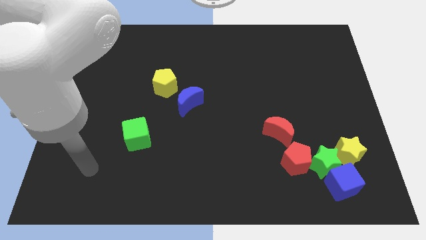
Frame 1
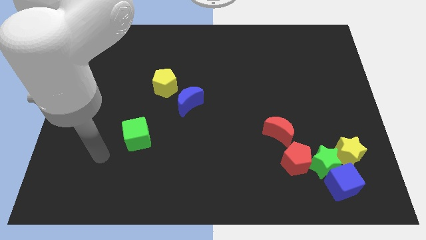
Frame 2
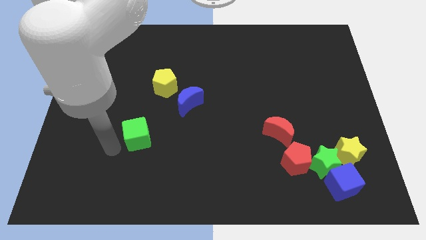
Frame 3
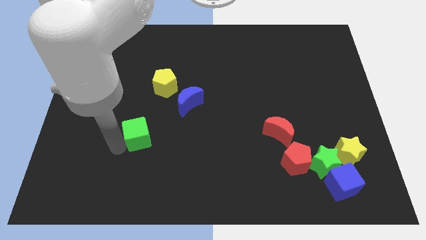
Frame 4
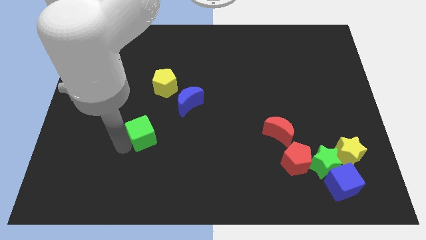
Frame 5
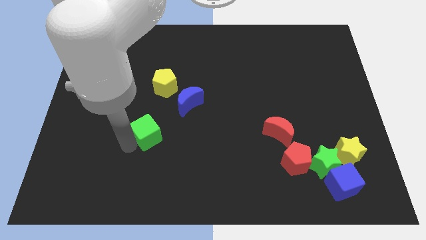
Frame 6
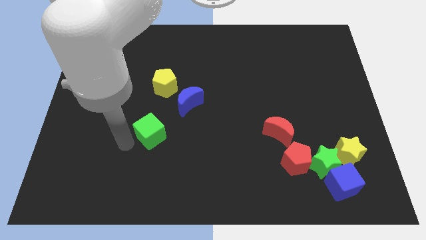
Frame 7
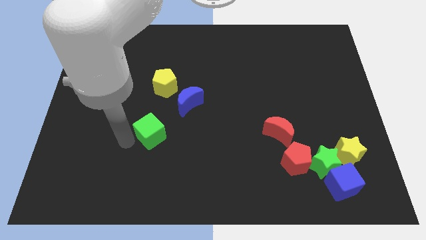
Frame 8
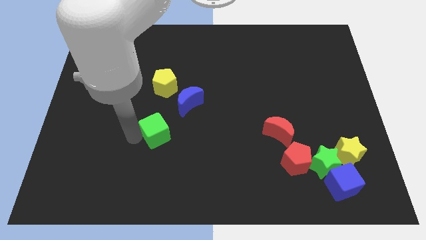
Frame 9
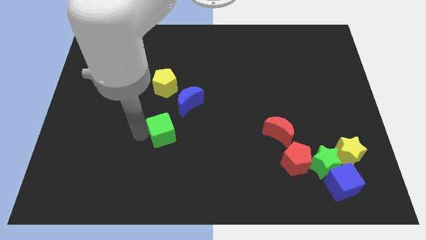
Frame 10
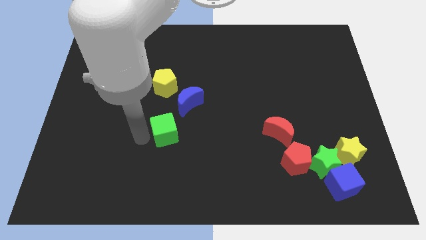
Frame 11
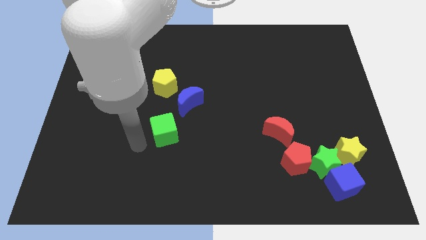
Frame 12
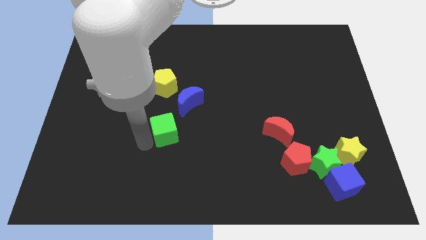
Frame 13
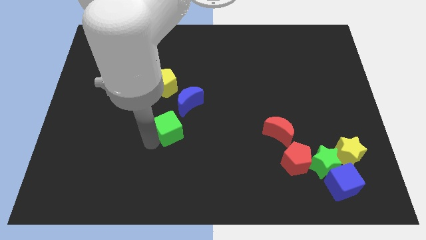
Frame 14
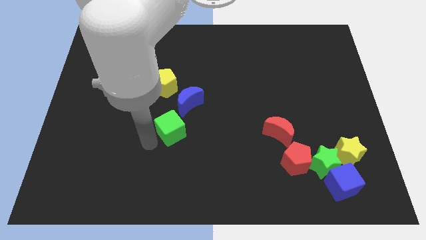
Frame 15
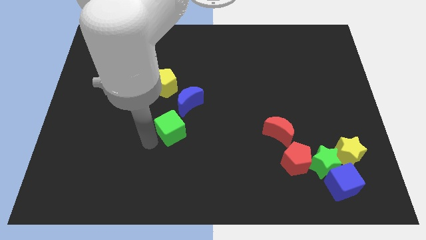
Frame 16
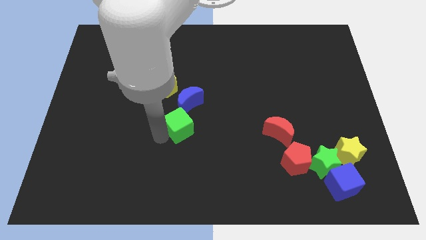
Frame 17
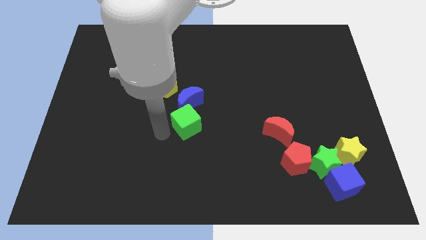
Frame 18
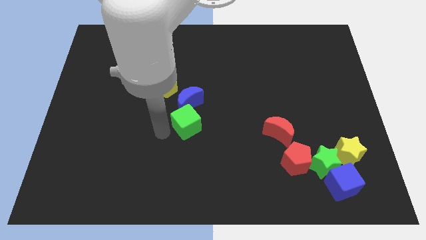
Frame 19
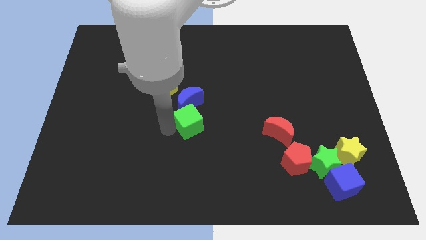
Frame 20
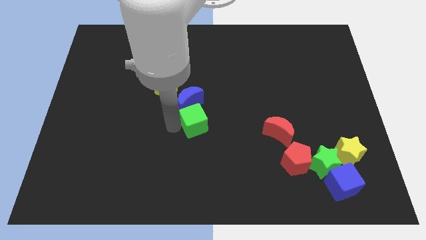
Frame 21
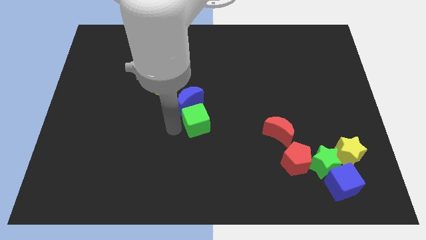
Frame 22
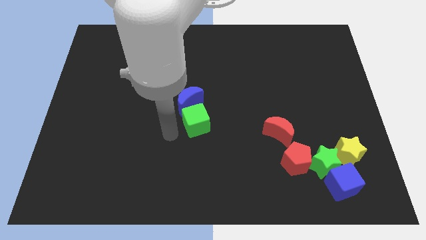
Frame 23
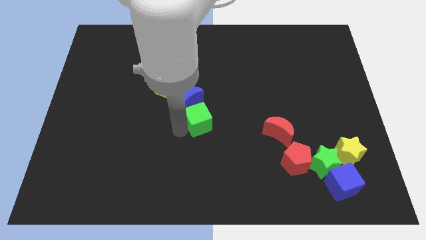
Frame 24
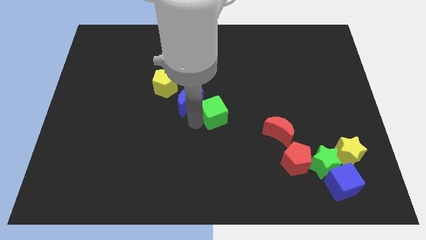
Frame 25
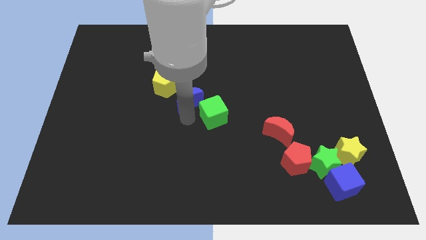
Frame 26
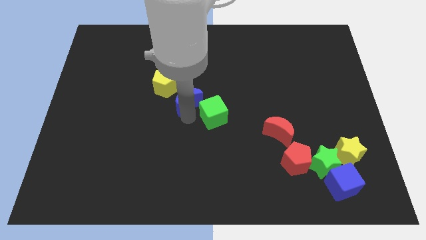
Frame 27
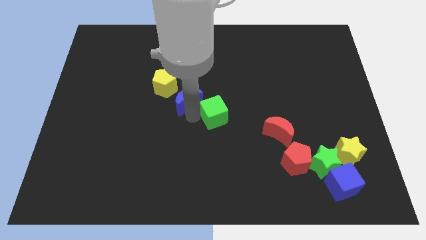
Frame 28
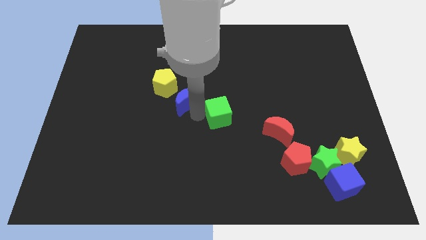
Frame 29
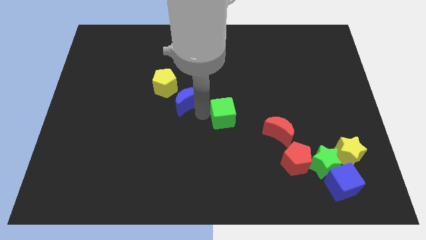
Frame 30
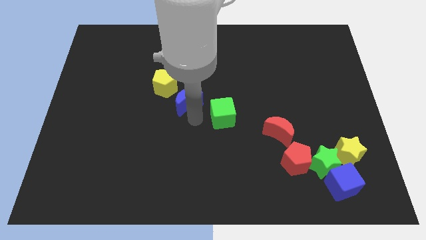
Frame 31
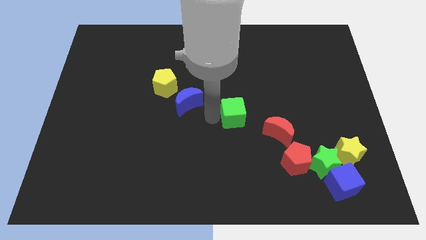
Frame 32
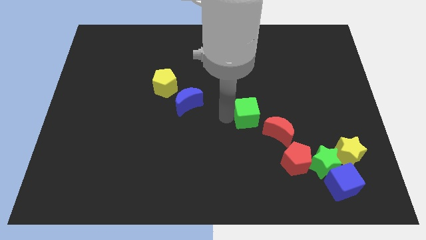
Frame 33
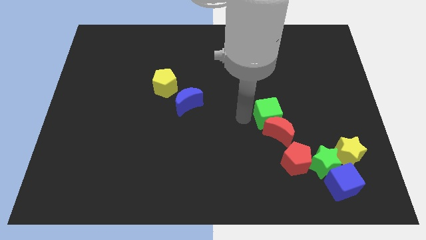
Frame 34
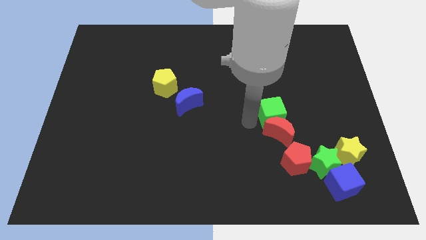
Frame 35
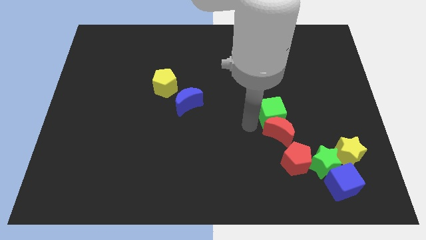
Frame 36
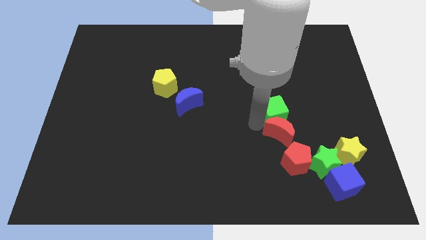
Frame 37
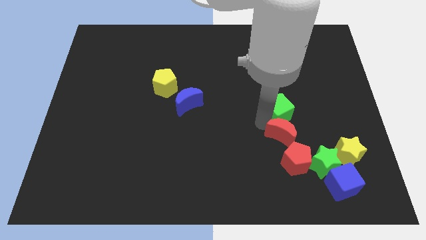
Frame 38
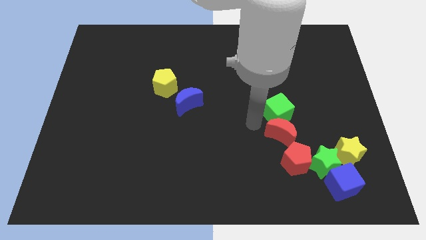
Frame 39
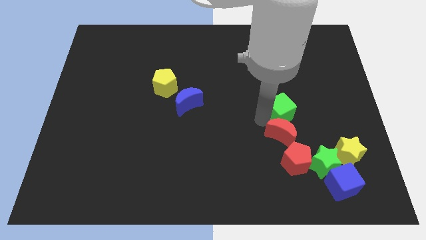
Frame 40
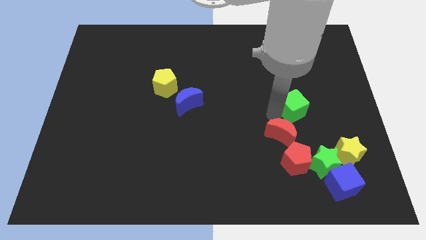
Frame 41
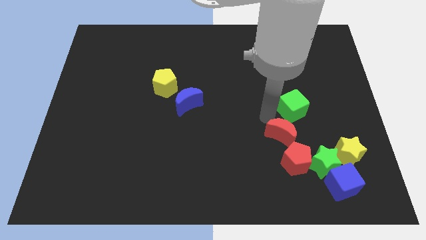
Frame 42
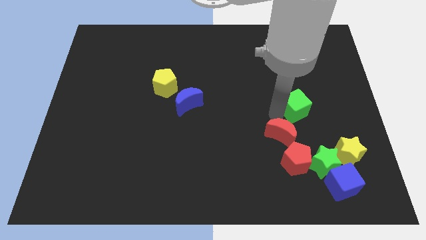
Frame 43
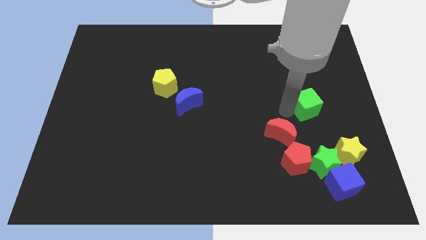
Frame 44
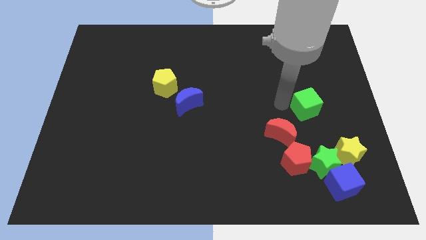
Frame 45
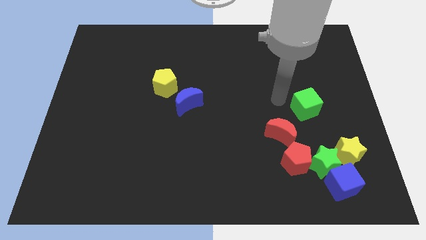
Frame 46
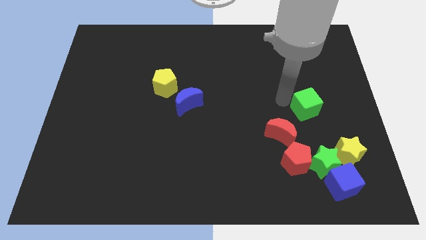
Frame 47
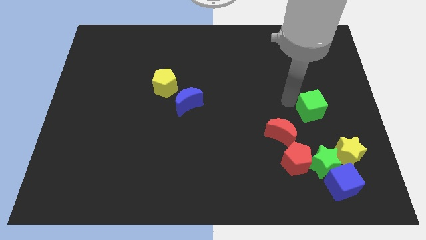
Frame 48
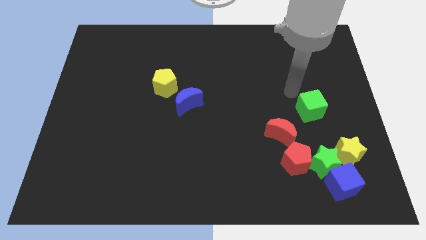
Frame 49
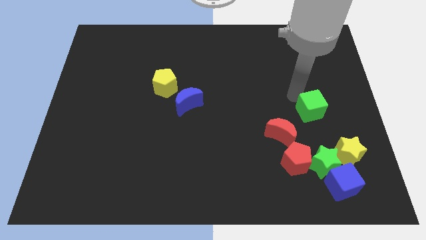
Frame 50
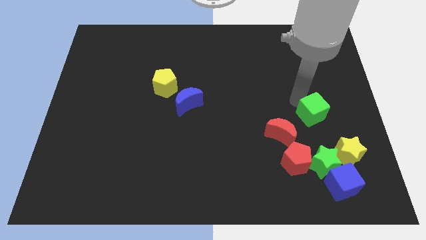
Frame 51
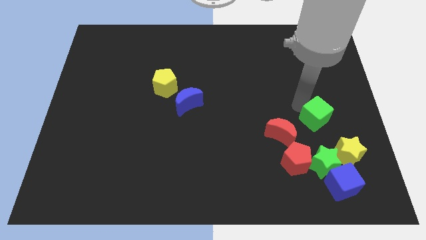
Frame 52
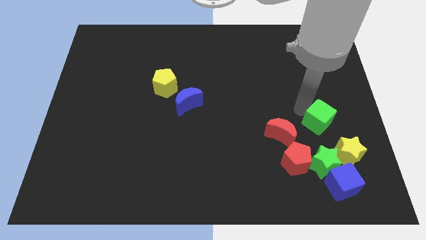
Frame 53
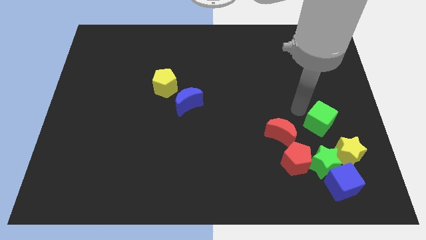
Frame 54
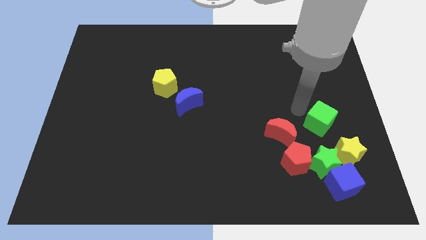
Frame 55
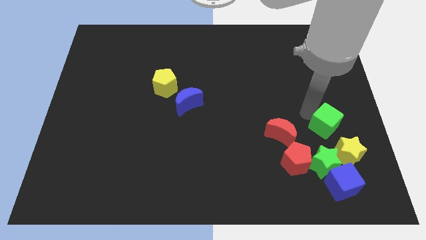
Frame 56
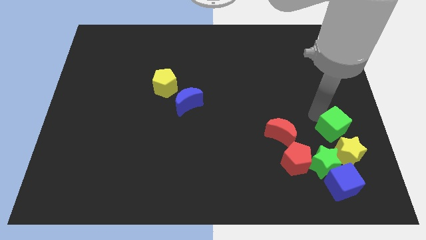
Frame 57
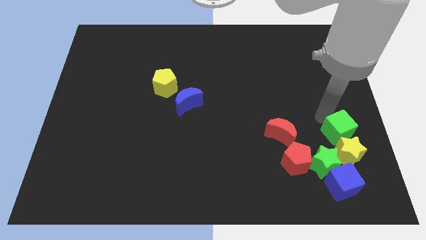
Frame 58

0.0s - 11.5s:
move the green cube close to the yellow star

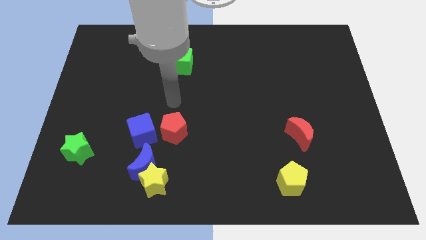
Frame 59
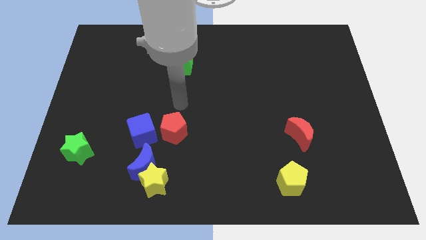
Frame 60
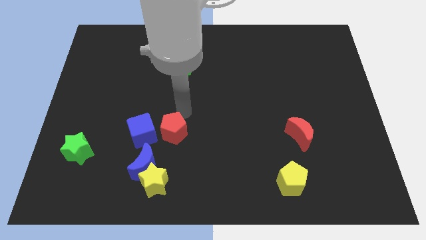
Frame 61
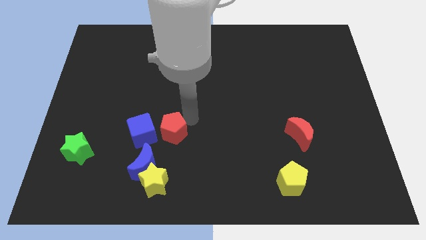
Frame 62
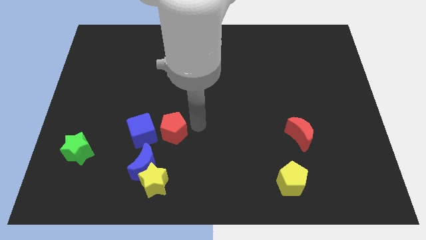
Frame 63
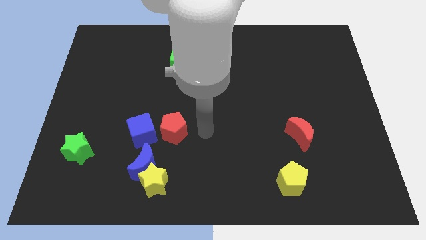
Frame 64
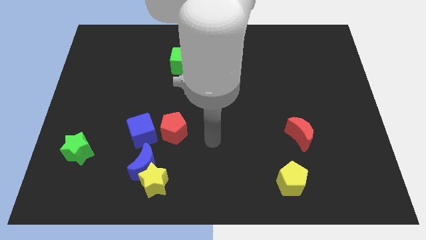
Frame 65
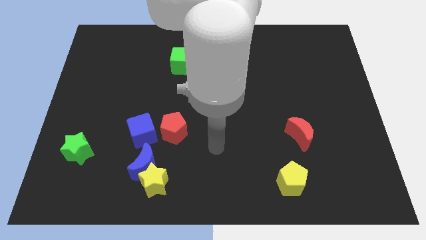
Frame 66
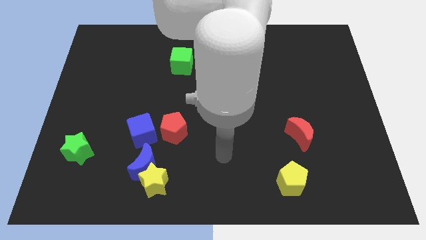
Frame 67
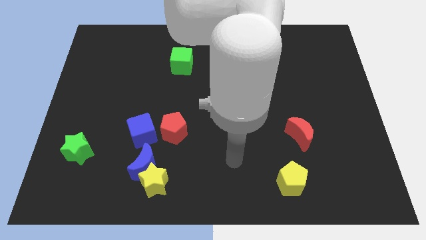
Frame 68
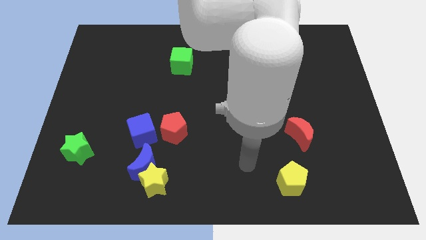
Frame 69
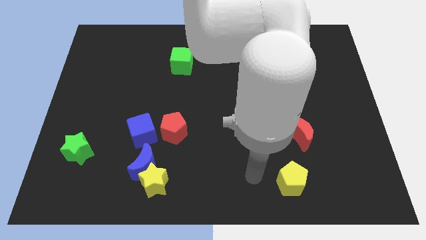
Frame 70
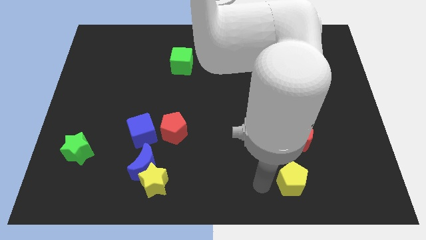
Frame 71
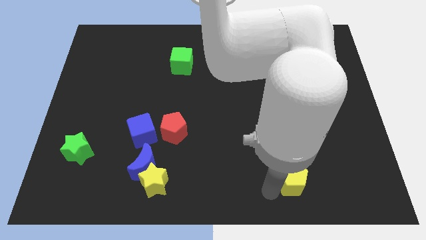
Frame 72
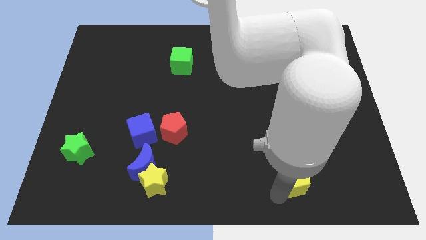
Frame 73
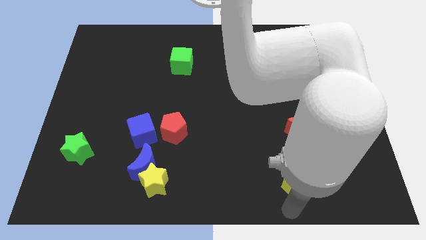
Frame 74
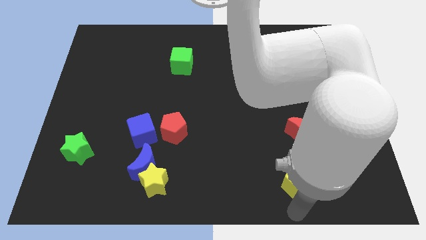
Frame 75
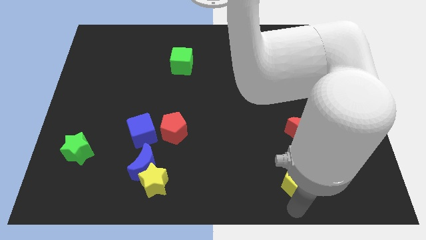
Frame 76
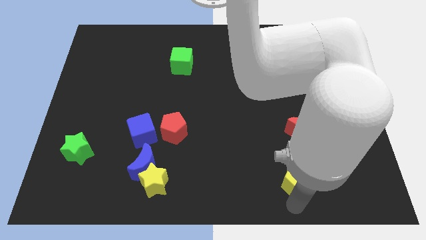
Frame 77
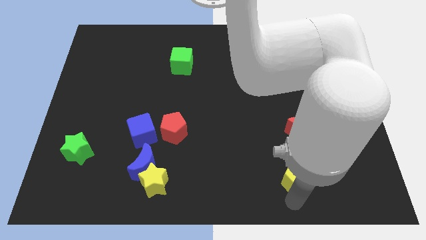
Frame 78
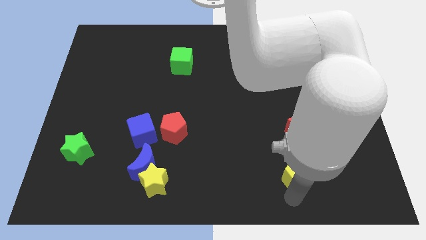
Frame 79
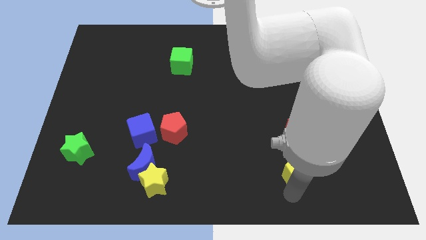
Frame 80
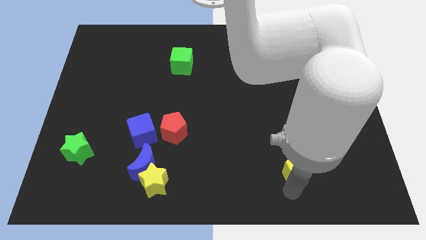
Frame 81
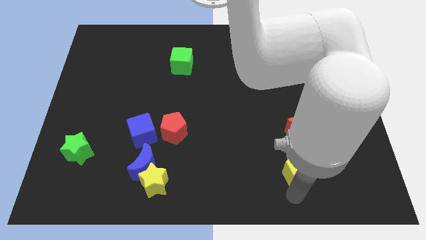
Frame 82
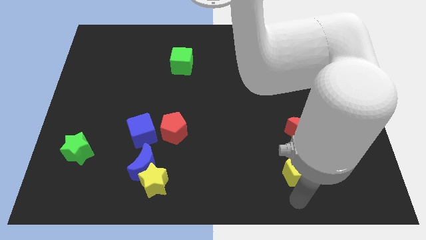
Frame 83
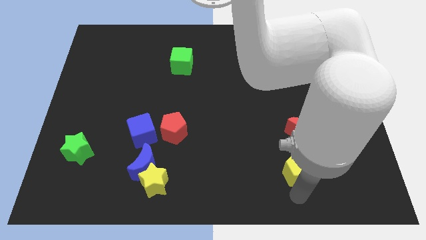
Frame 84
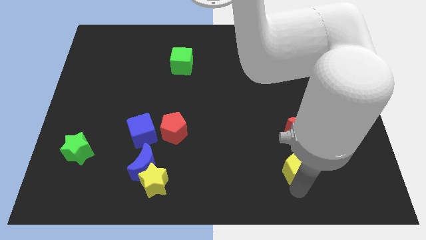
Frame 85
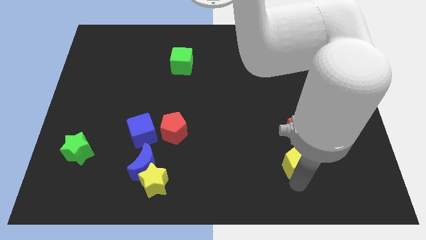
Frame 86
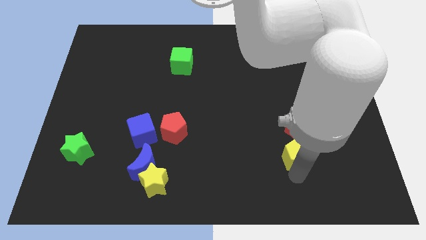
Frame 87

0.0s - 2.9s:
push the yellow pentagon next to the red moon
